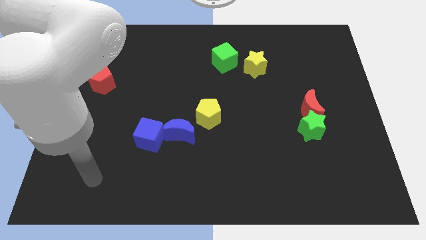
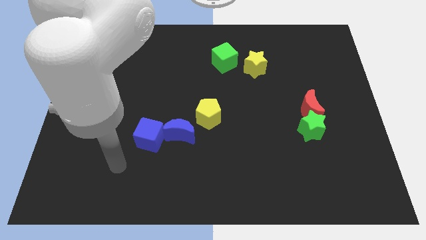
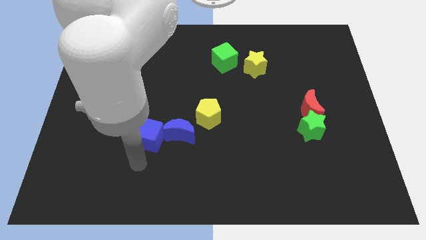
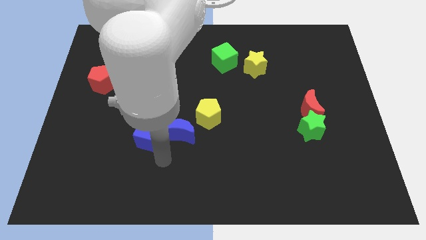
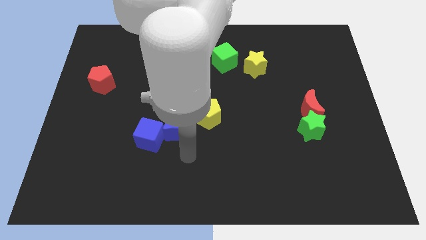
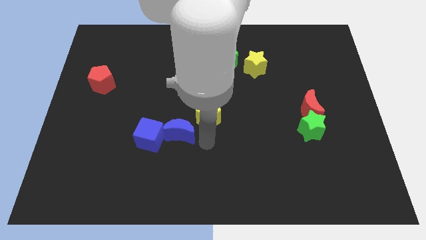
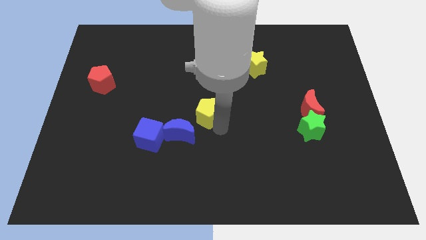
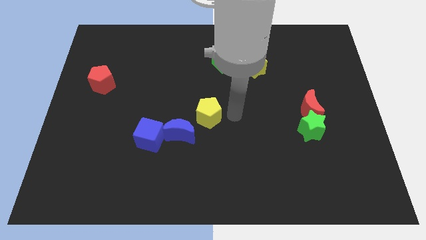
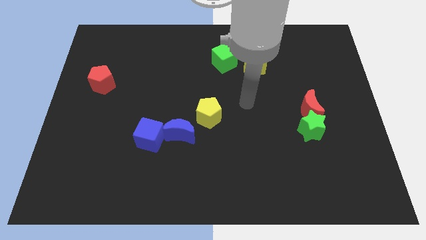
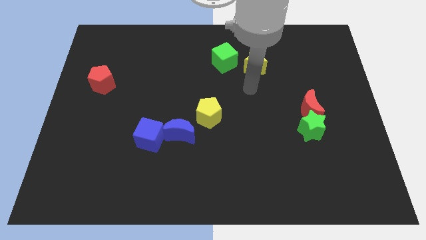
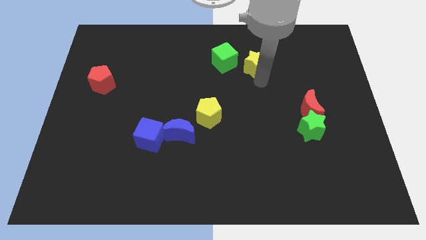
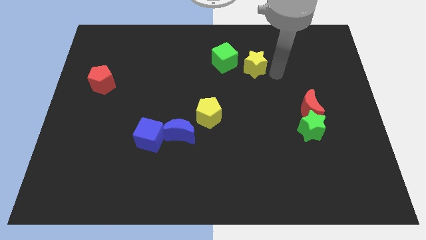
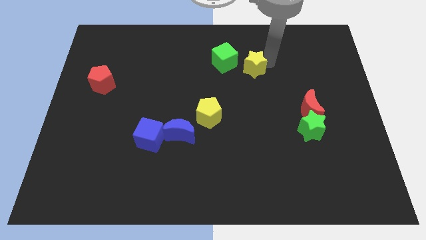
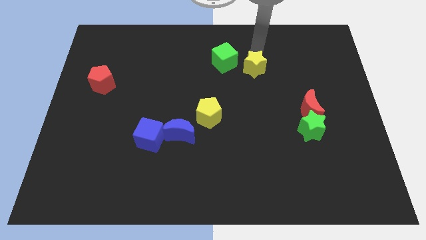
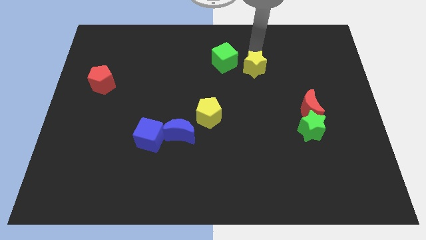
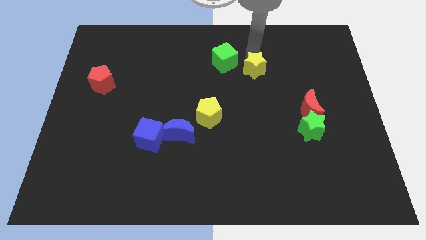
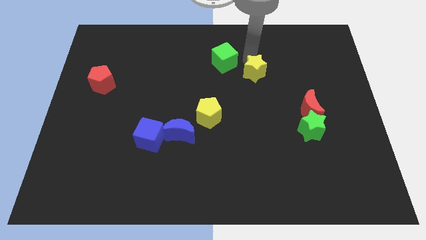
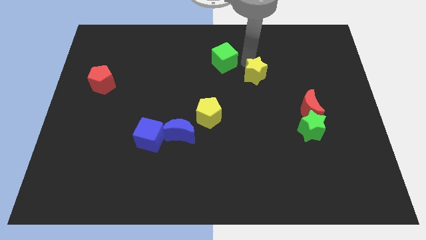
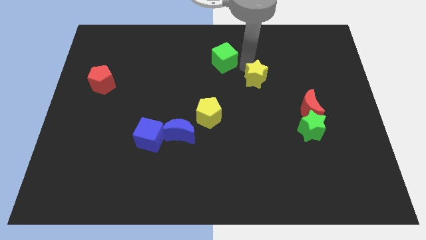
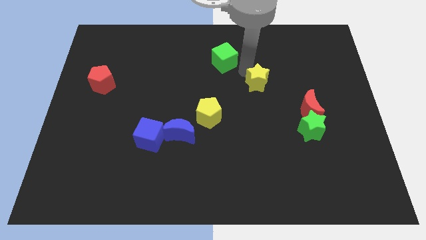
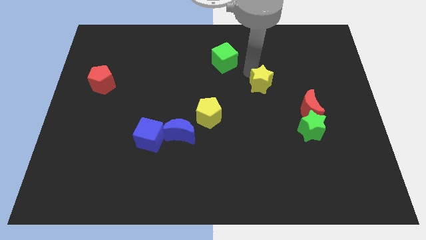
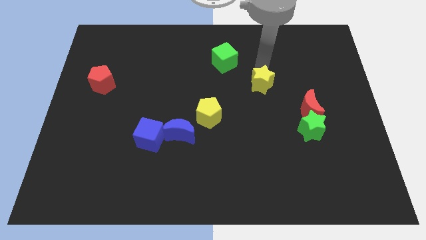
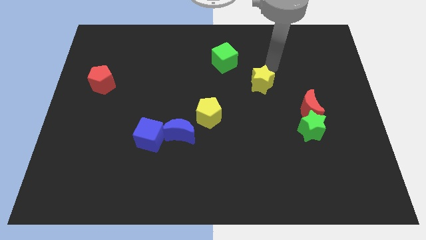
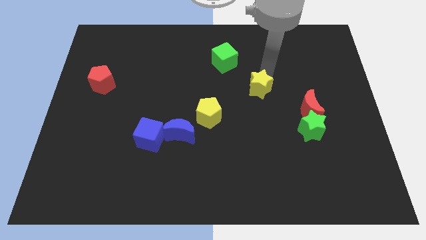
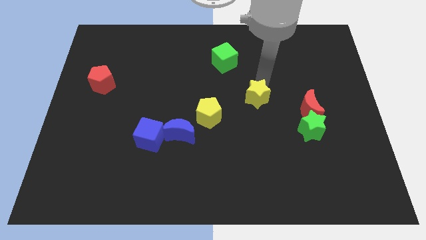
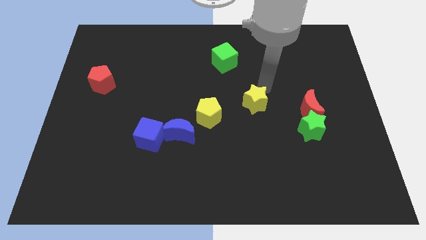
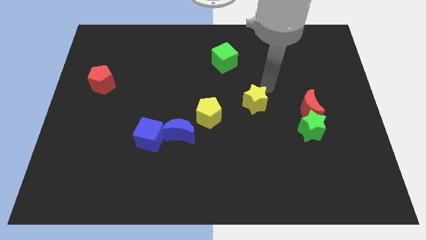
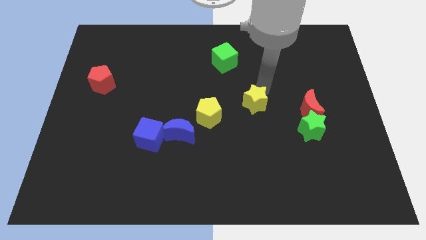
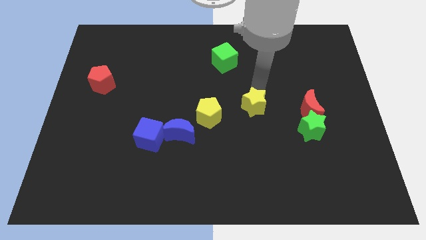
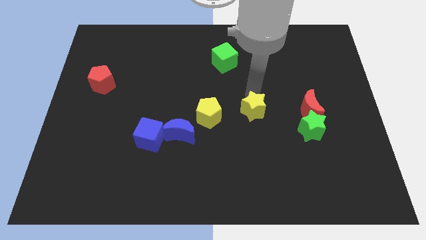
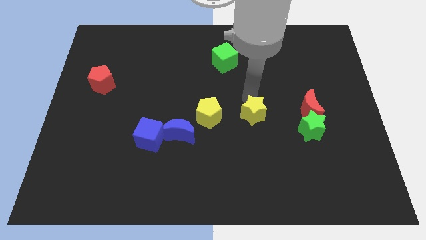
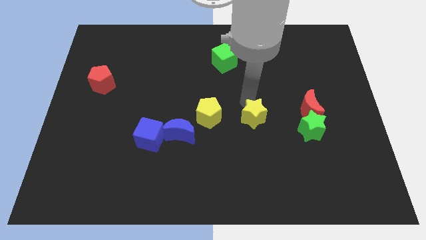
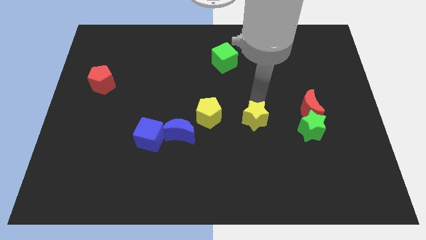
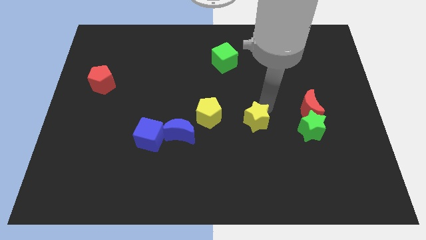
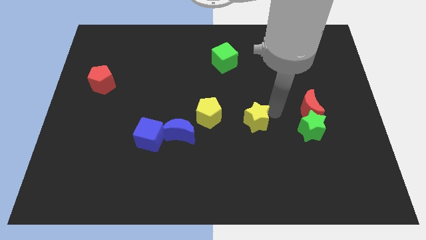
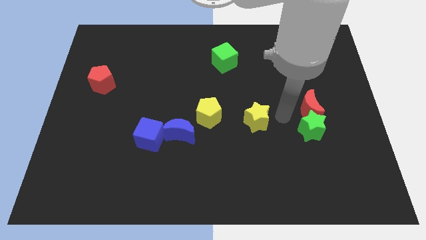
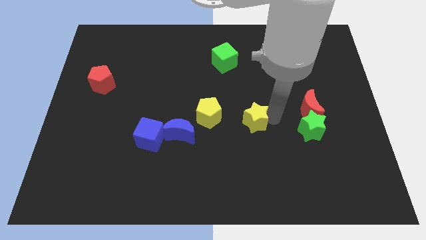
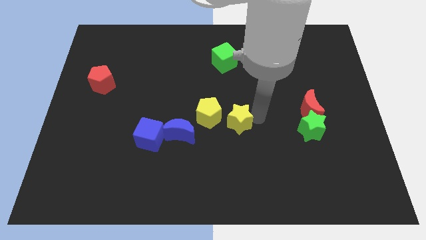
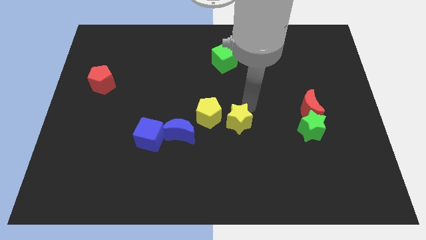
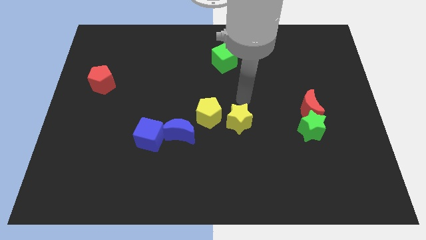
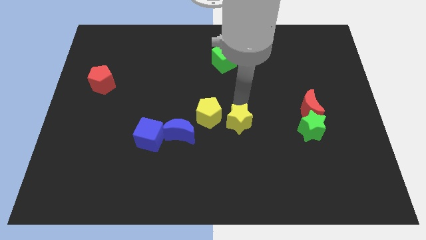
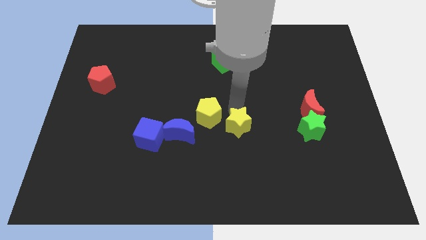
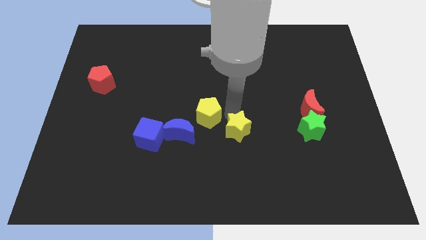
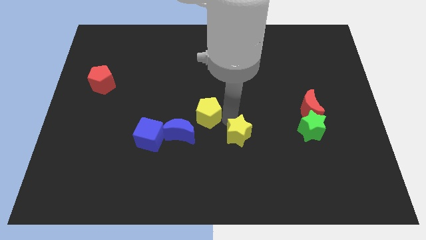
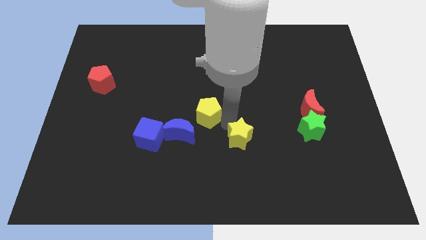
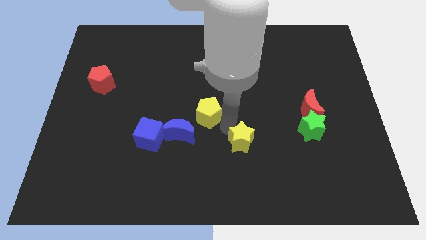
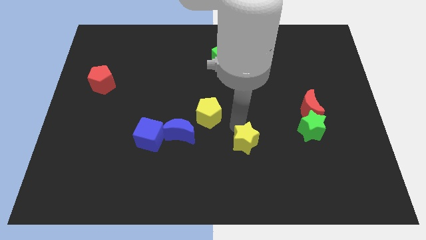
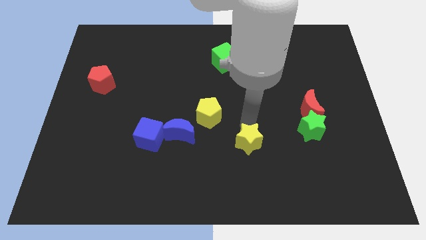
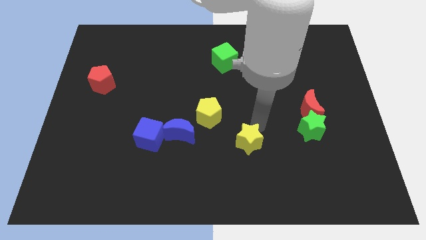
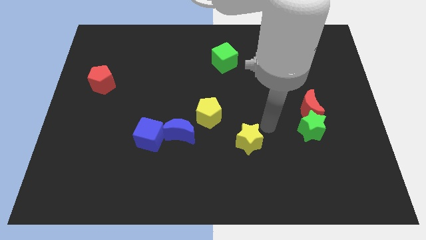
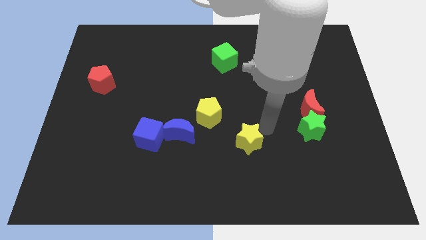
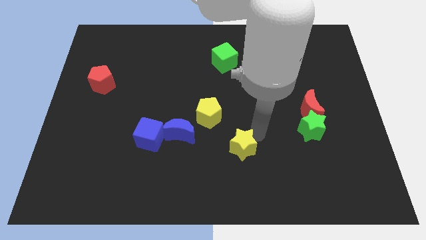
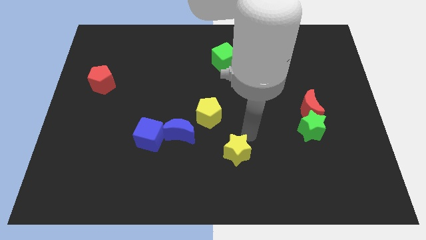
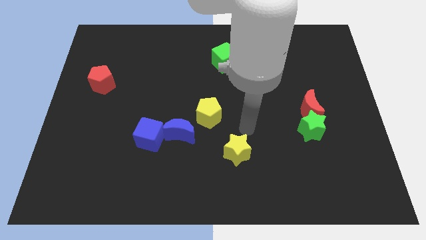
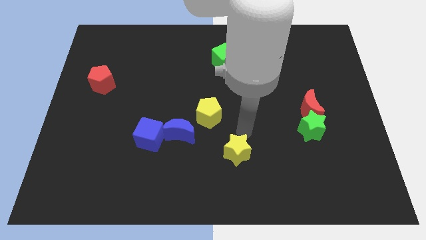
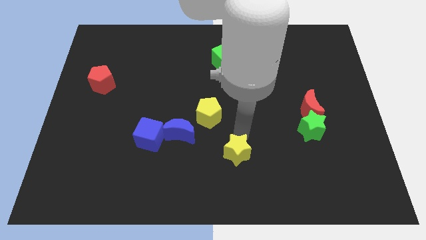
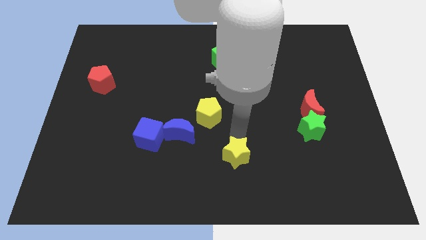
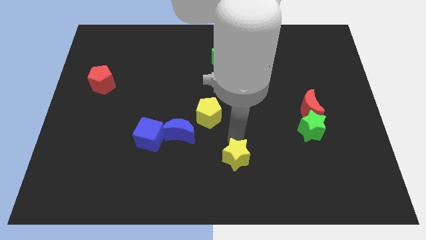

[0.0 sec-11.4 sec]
push the yellow star to the bottom
